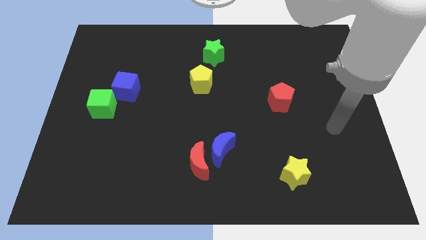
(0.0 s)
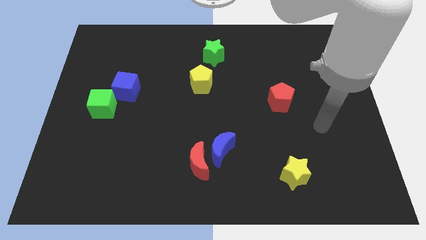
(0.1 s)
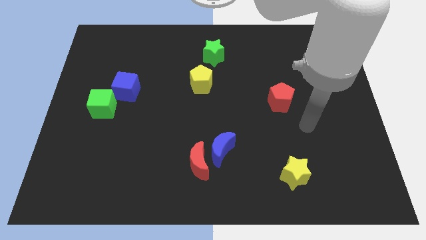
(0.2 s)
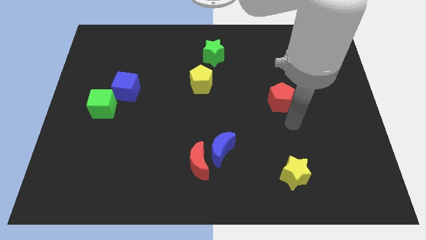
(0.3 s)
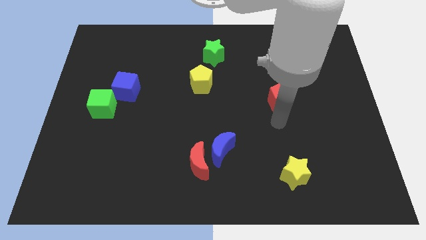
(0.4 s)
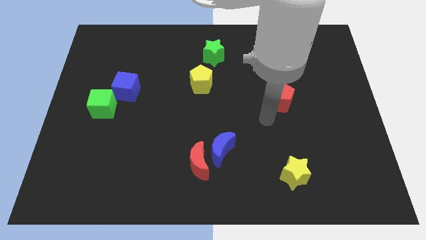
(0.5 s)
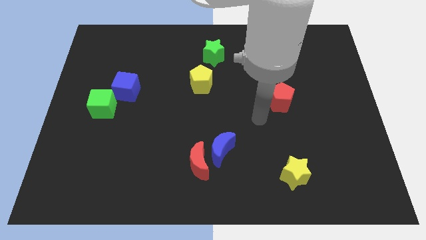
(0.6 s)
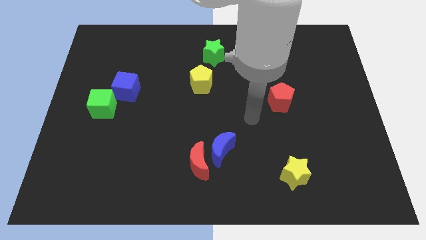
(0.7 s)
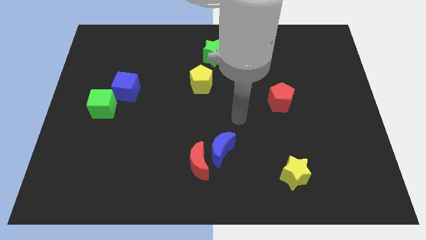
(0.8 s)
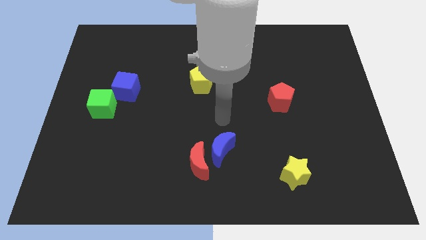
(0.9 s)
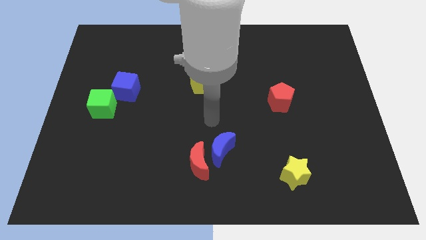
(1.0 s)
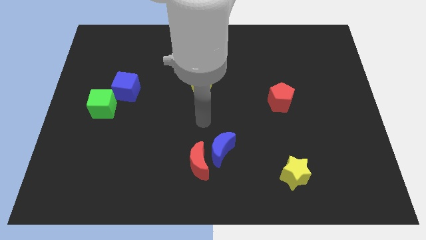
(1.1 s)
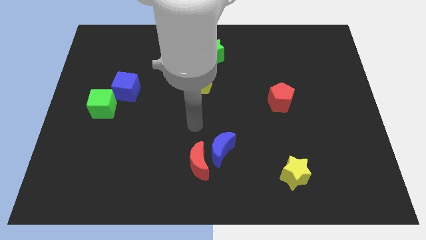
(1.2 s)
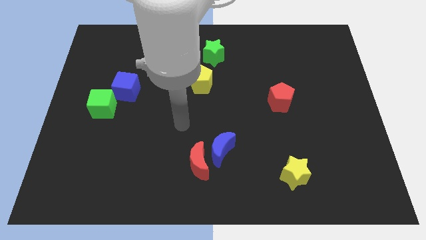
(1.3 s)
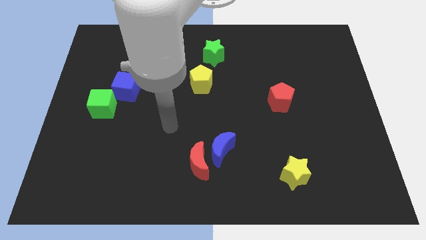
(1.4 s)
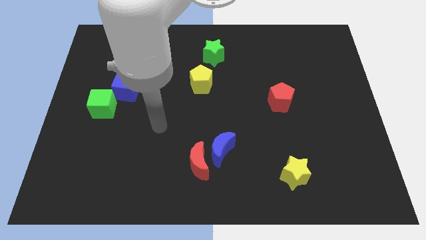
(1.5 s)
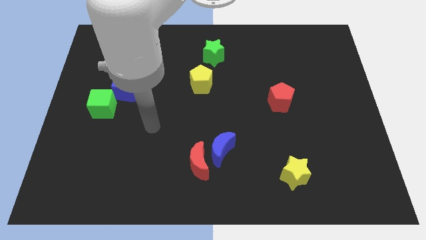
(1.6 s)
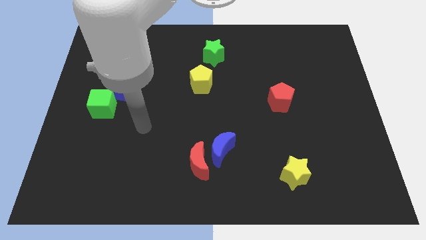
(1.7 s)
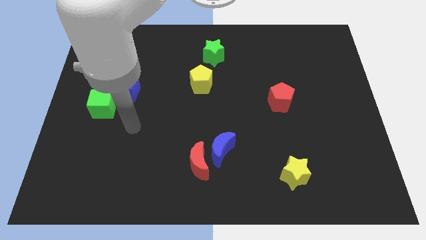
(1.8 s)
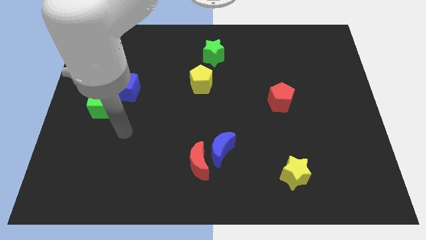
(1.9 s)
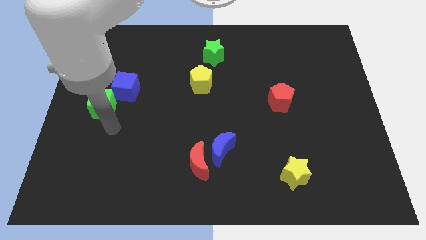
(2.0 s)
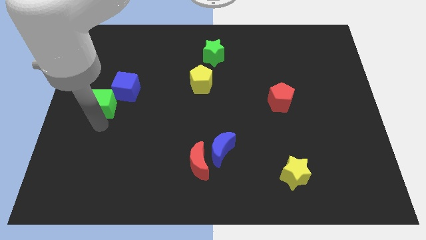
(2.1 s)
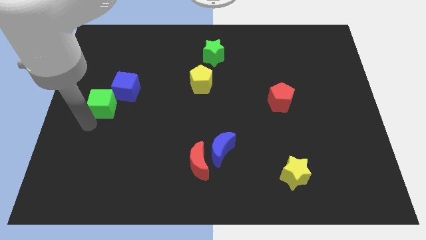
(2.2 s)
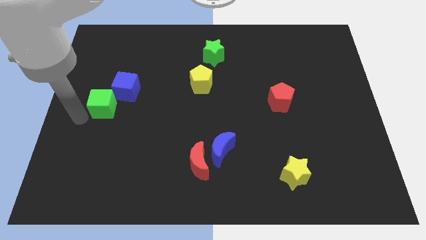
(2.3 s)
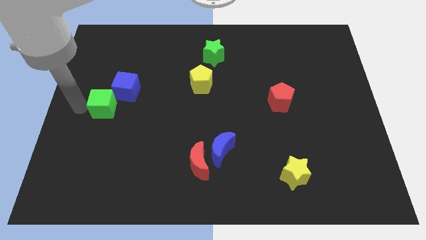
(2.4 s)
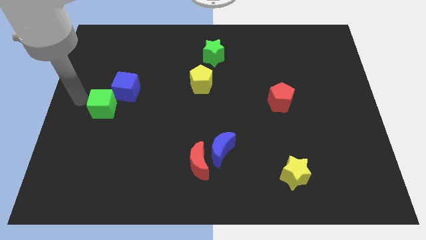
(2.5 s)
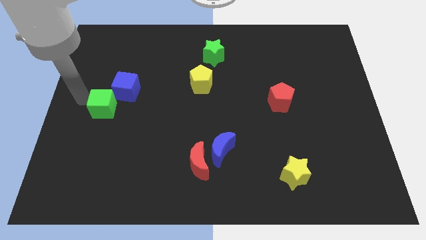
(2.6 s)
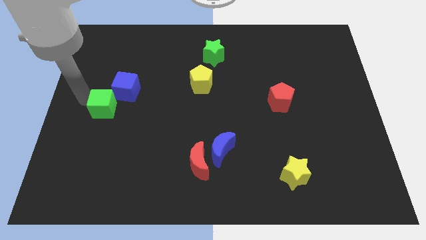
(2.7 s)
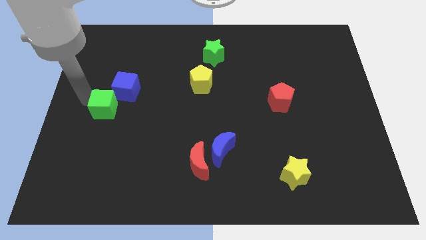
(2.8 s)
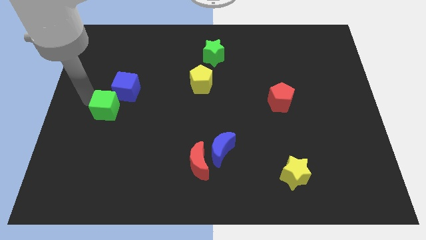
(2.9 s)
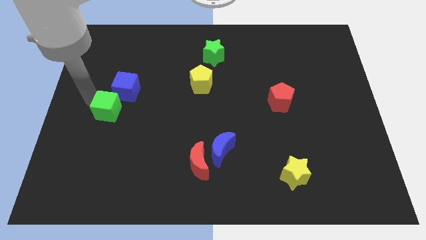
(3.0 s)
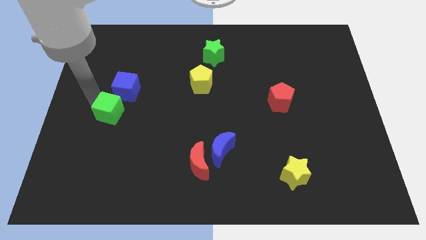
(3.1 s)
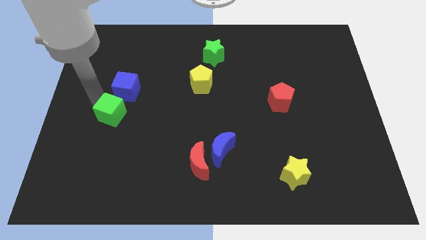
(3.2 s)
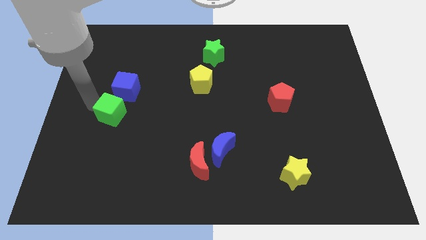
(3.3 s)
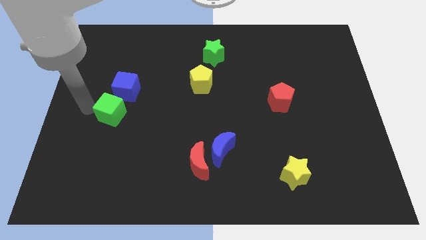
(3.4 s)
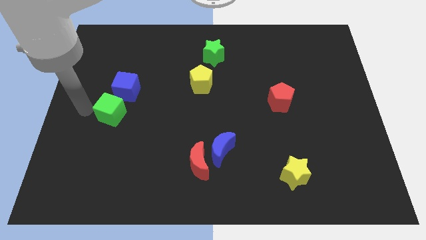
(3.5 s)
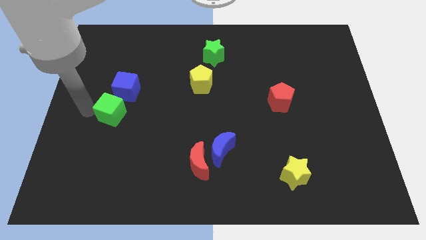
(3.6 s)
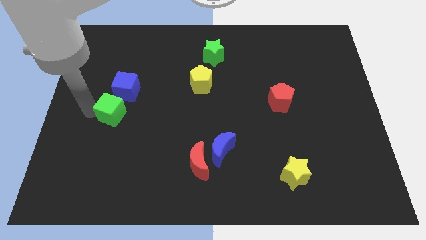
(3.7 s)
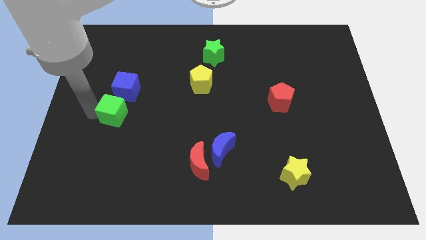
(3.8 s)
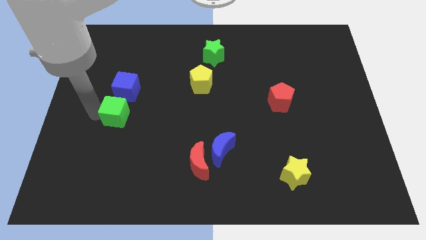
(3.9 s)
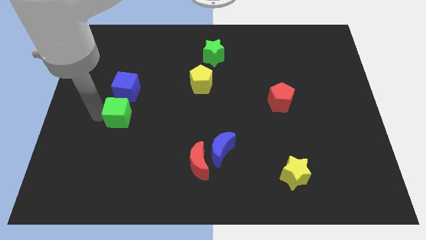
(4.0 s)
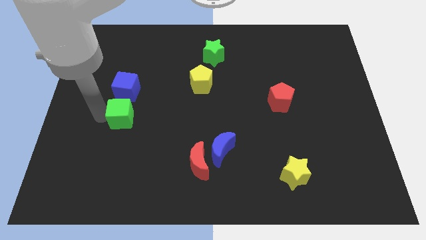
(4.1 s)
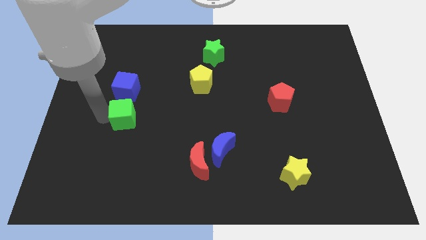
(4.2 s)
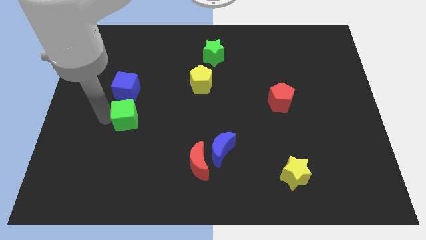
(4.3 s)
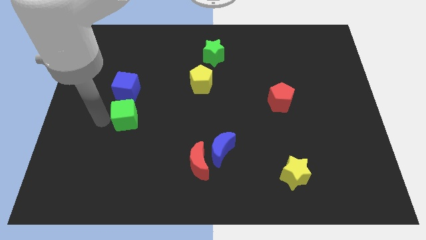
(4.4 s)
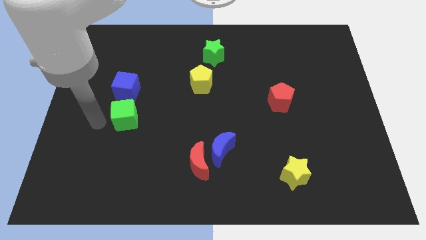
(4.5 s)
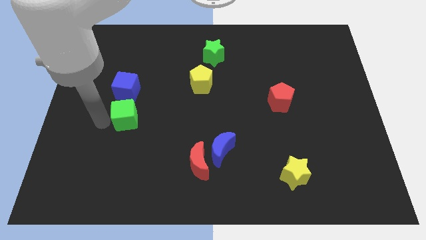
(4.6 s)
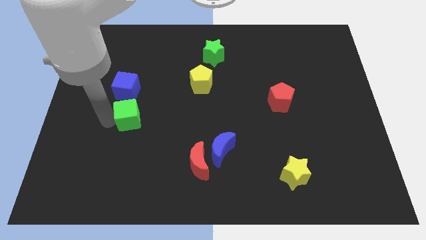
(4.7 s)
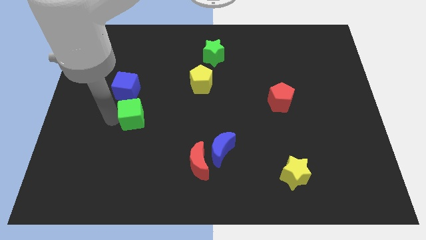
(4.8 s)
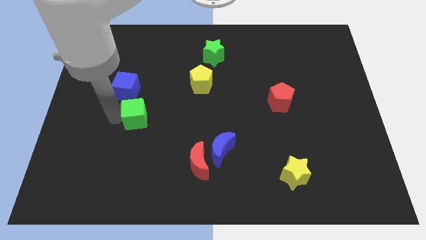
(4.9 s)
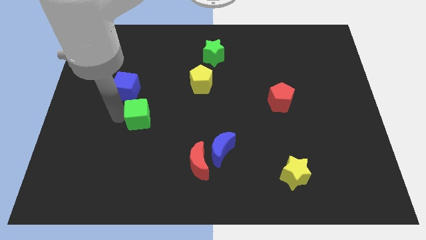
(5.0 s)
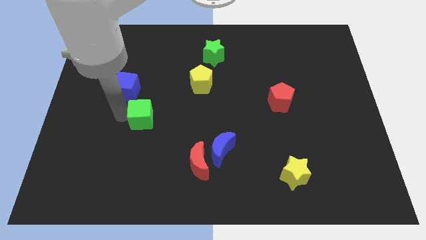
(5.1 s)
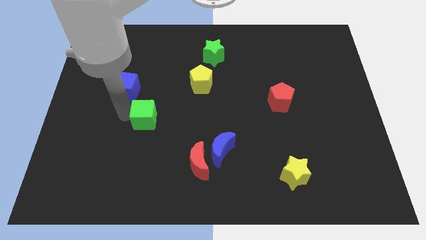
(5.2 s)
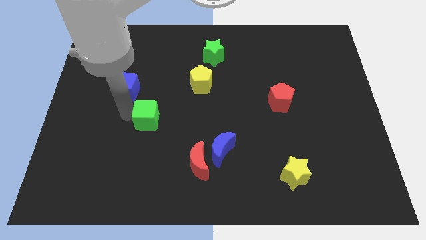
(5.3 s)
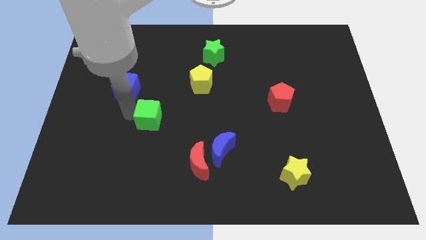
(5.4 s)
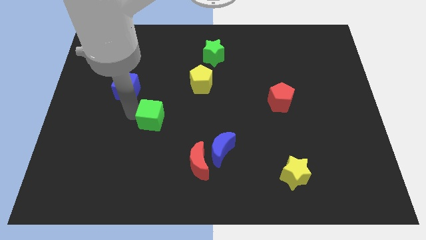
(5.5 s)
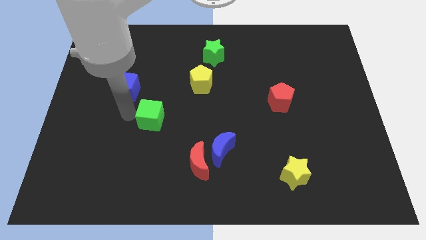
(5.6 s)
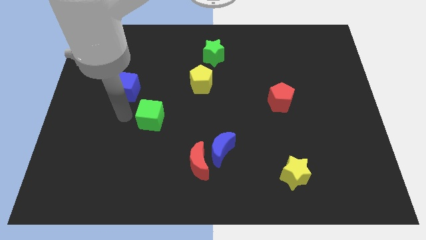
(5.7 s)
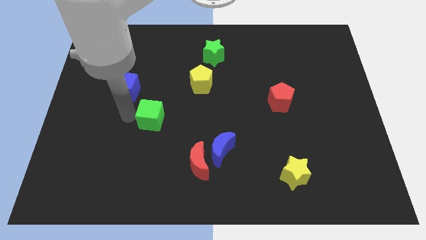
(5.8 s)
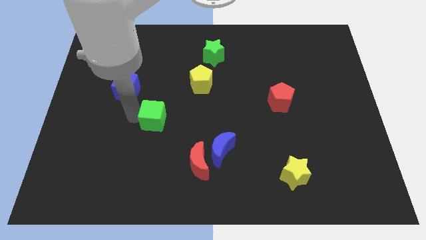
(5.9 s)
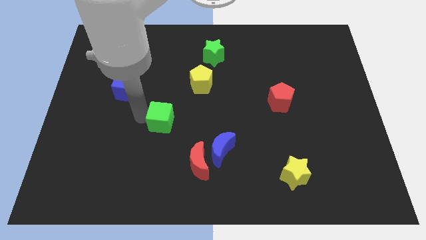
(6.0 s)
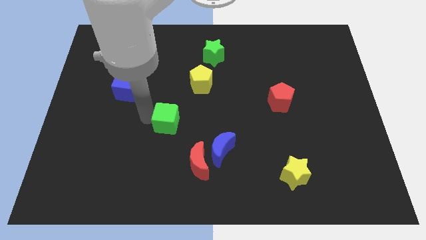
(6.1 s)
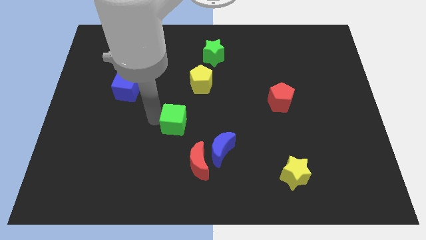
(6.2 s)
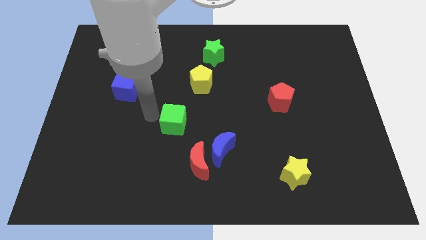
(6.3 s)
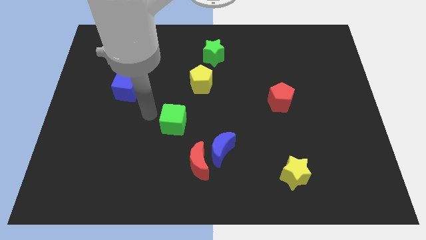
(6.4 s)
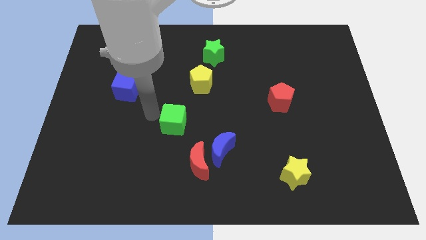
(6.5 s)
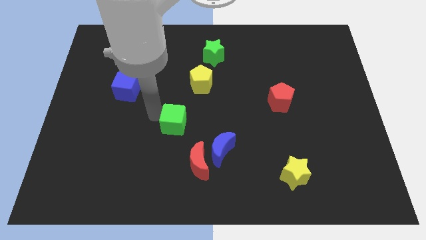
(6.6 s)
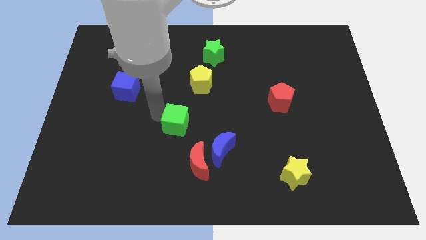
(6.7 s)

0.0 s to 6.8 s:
push the green cube to the top left of the blue moon
